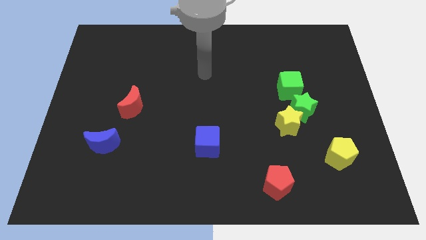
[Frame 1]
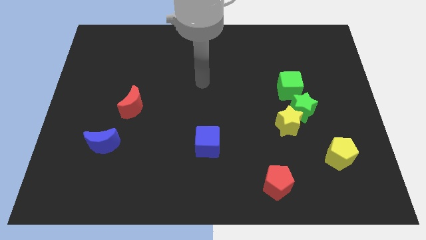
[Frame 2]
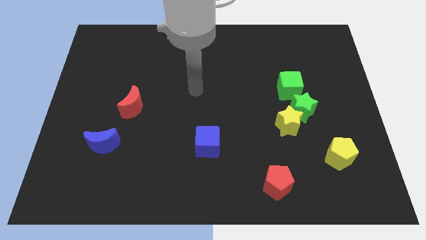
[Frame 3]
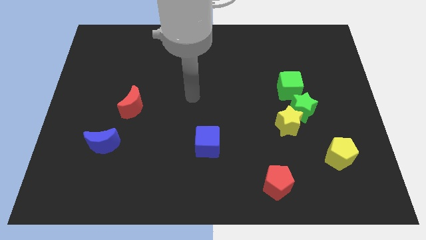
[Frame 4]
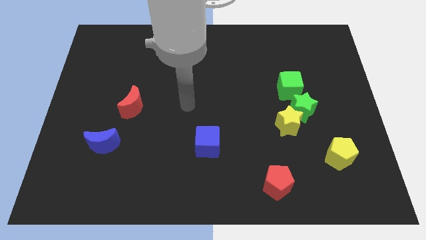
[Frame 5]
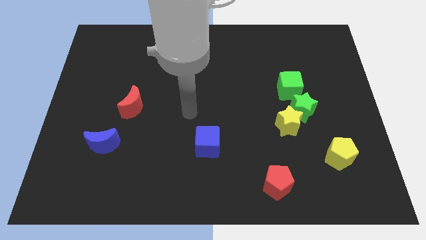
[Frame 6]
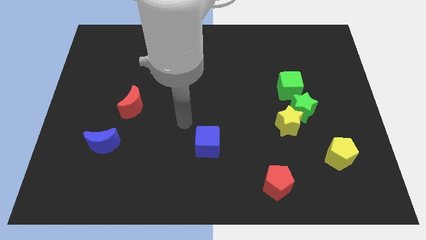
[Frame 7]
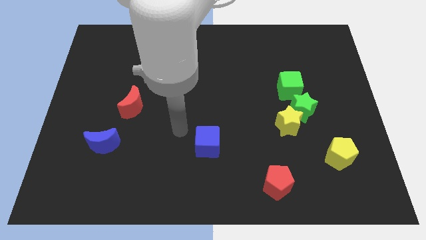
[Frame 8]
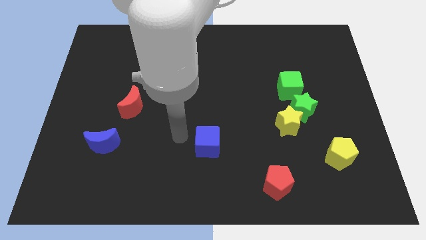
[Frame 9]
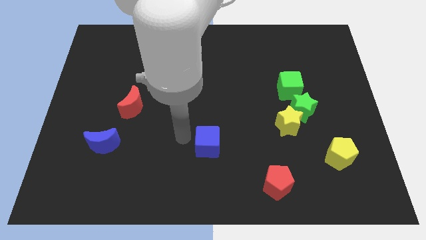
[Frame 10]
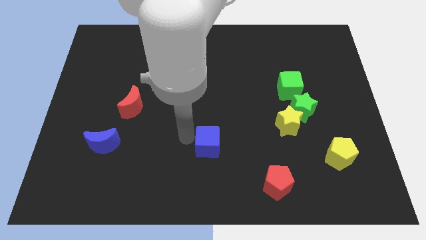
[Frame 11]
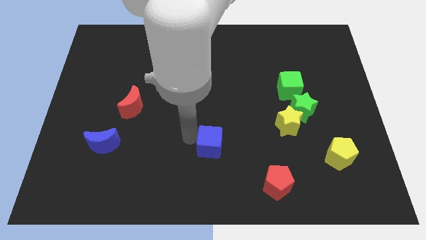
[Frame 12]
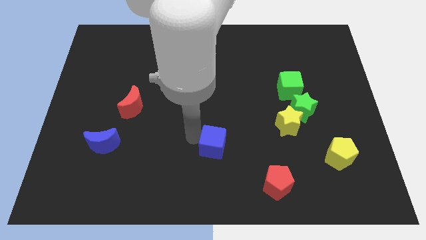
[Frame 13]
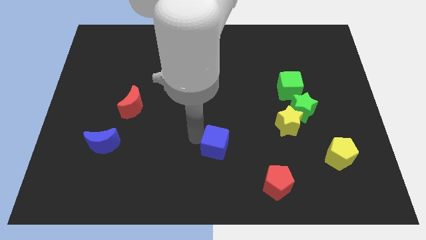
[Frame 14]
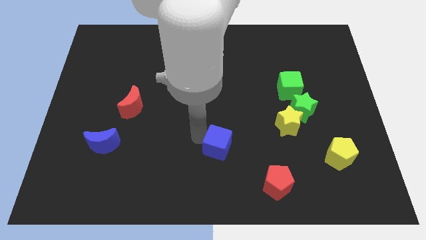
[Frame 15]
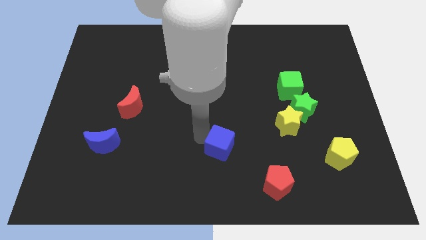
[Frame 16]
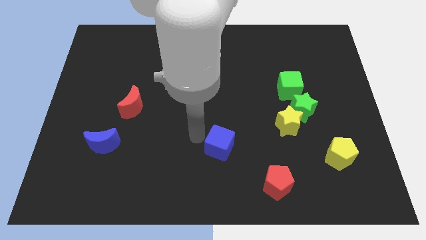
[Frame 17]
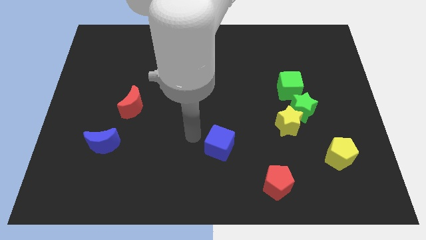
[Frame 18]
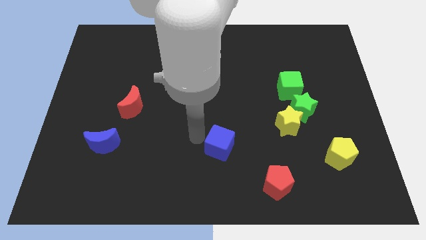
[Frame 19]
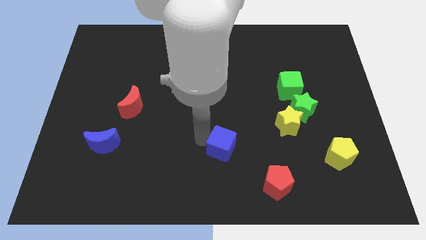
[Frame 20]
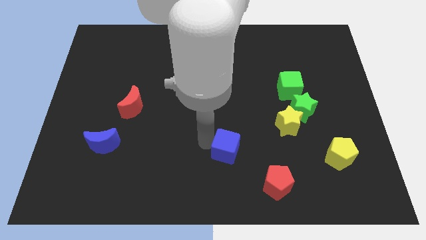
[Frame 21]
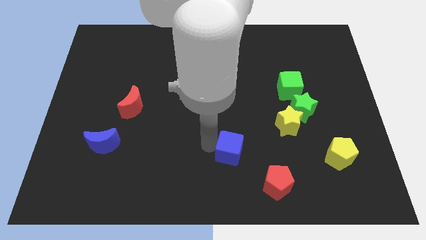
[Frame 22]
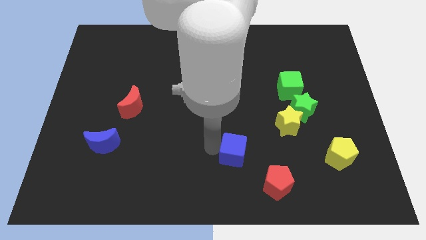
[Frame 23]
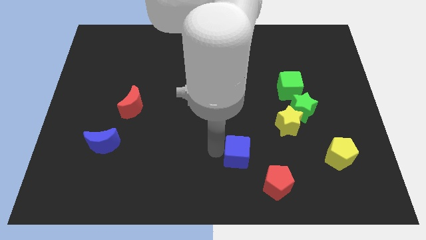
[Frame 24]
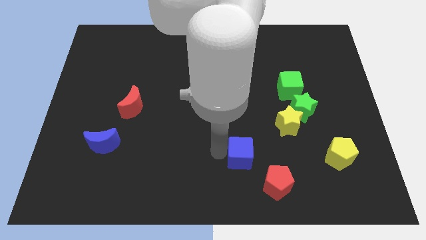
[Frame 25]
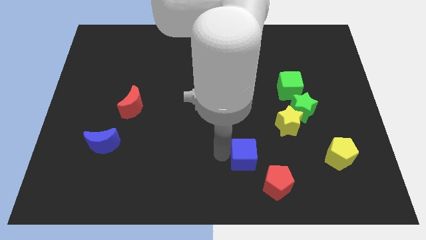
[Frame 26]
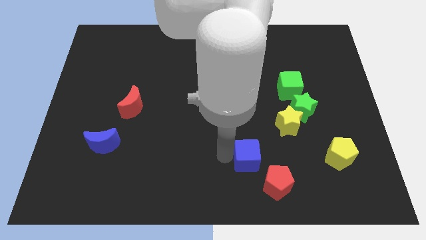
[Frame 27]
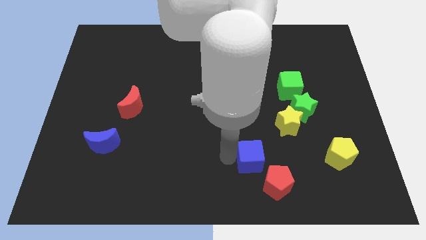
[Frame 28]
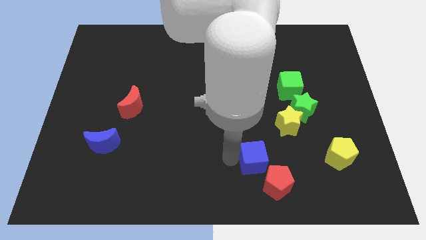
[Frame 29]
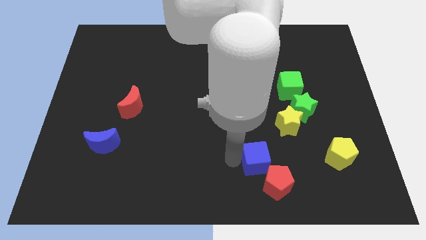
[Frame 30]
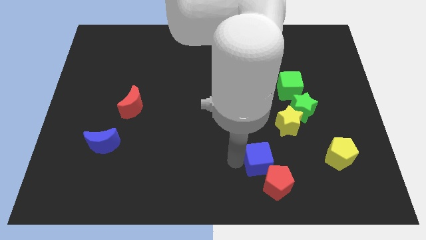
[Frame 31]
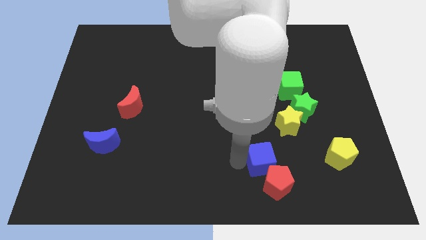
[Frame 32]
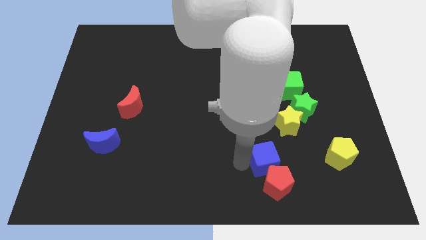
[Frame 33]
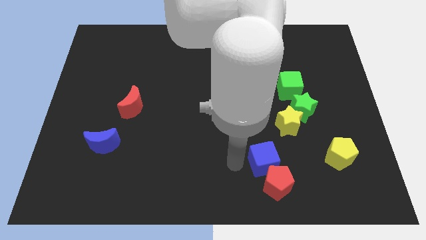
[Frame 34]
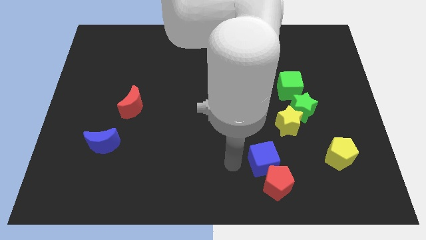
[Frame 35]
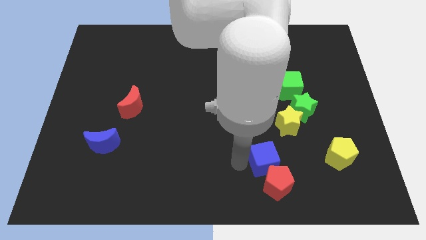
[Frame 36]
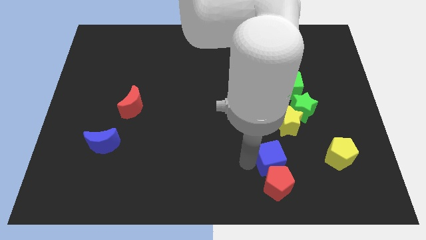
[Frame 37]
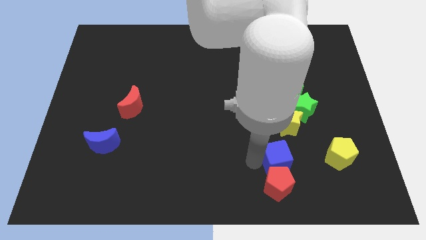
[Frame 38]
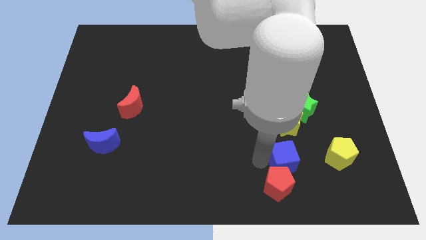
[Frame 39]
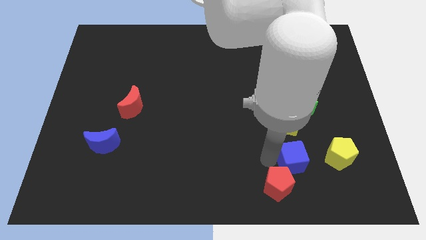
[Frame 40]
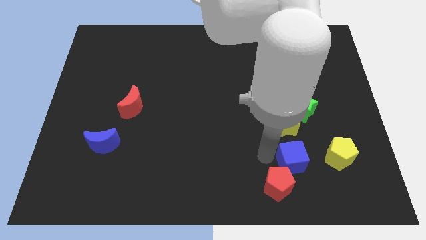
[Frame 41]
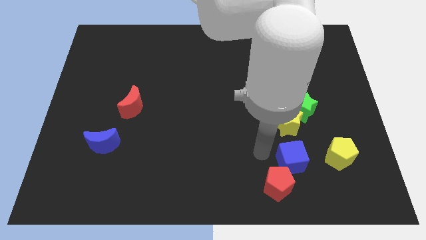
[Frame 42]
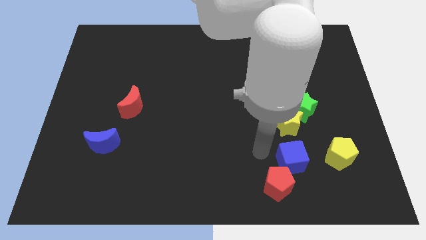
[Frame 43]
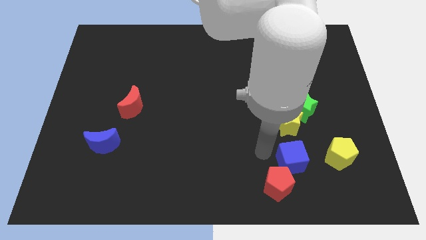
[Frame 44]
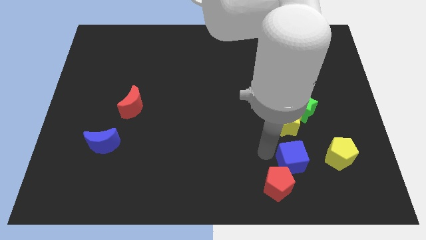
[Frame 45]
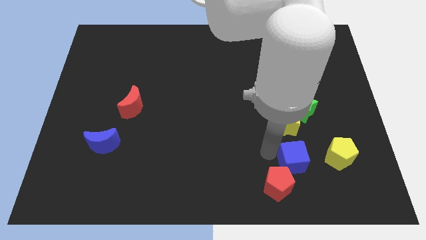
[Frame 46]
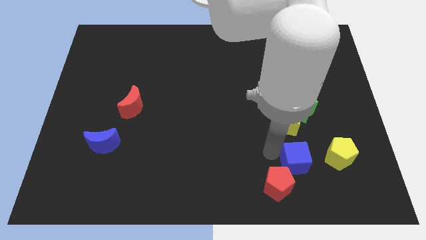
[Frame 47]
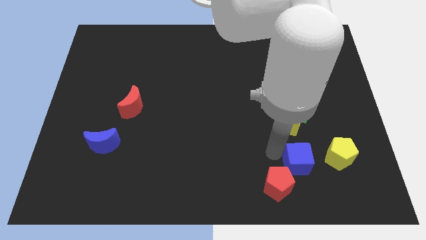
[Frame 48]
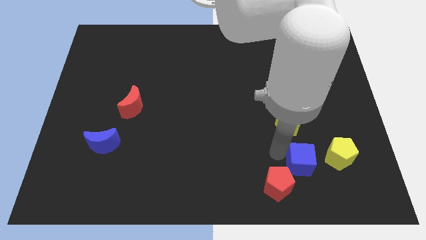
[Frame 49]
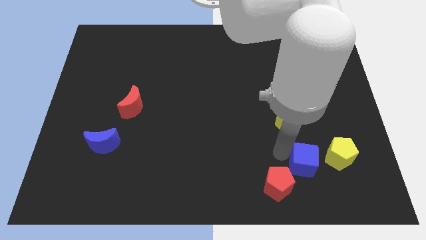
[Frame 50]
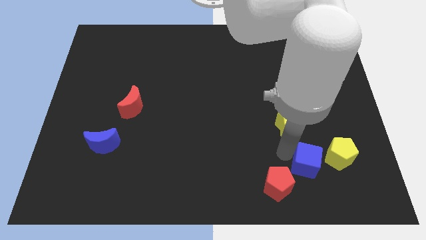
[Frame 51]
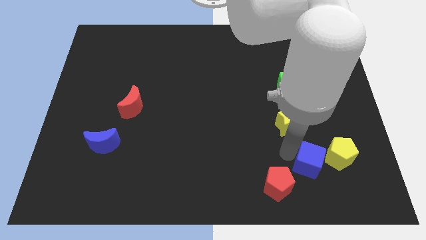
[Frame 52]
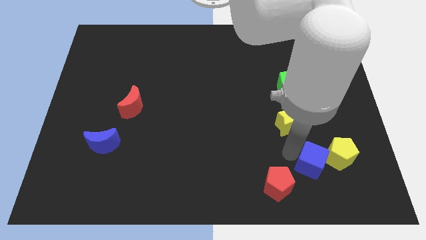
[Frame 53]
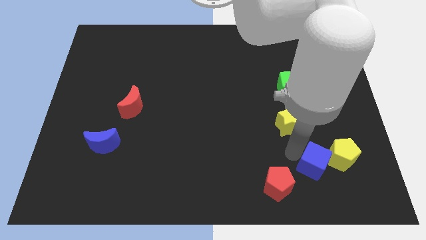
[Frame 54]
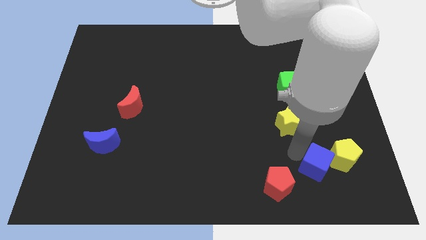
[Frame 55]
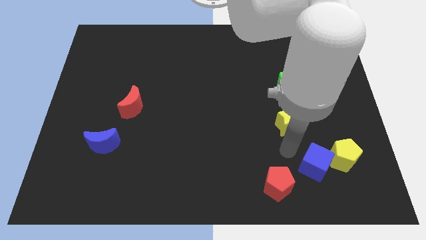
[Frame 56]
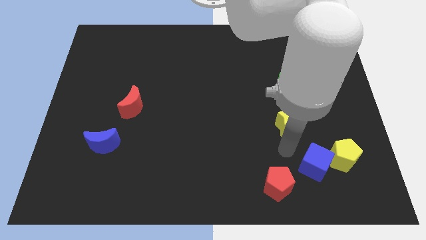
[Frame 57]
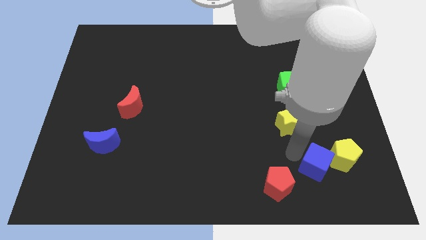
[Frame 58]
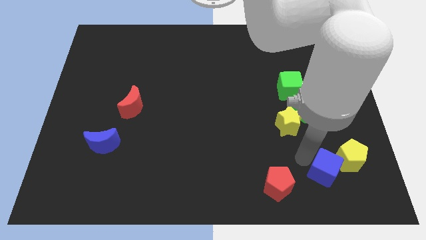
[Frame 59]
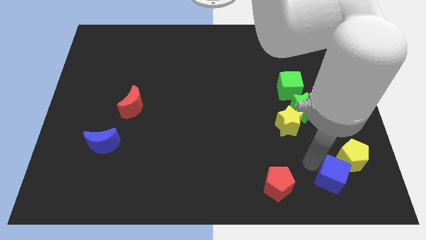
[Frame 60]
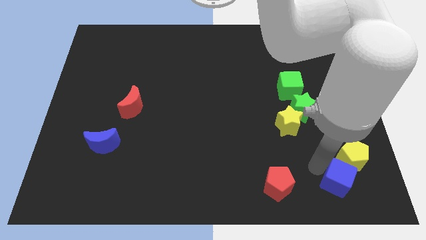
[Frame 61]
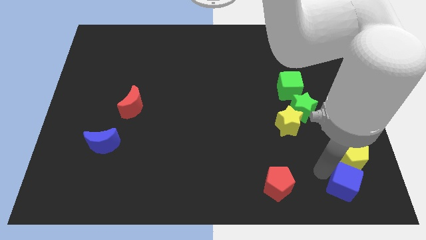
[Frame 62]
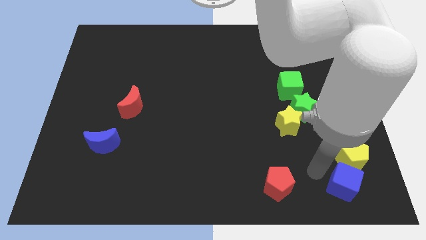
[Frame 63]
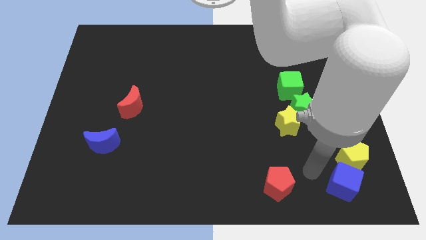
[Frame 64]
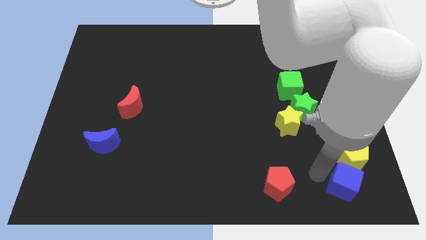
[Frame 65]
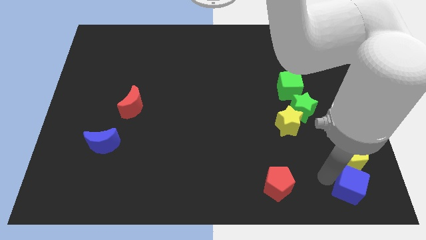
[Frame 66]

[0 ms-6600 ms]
move the blue cube to the bottom right
